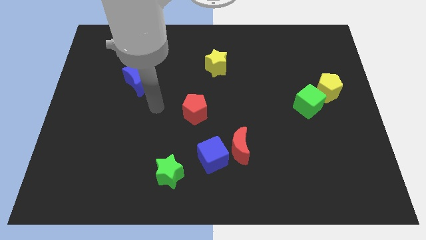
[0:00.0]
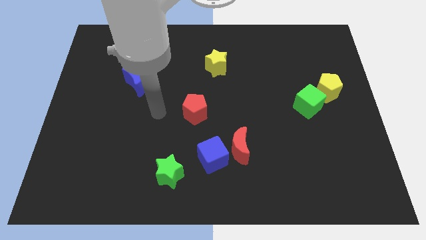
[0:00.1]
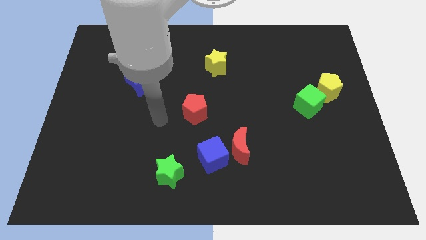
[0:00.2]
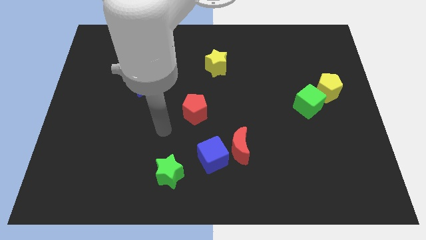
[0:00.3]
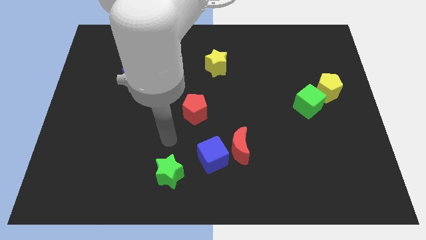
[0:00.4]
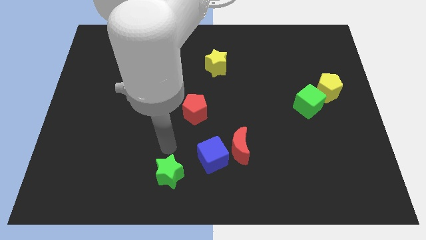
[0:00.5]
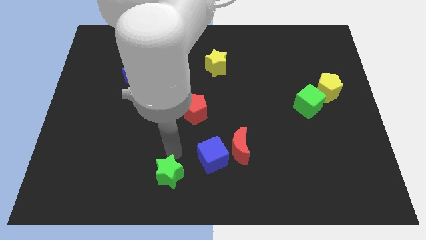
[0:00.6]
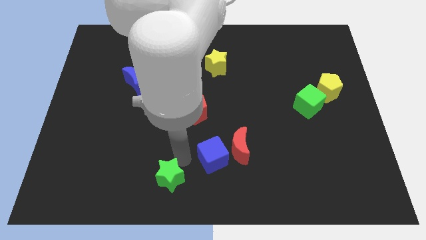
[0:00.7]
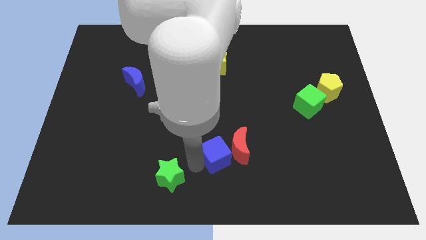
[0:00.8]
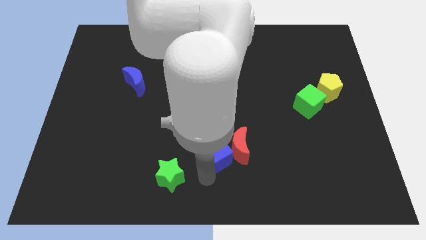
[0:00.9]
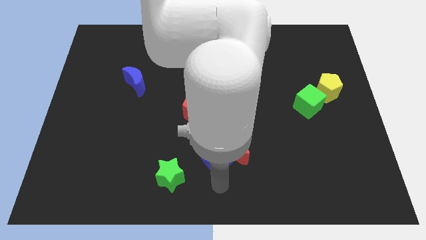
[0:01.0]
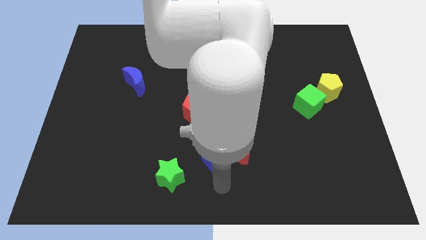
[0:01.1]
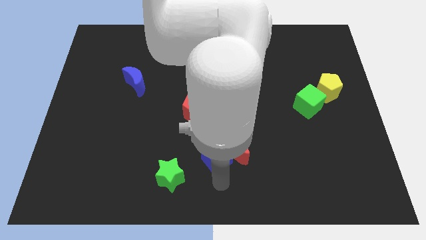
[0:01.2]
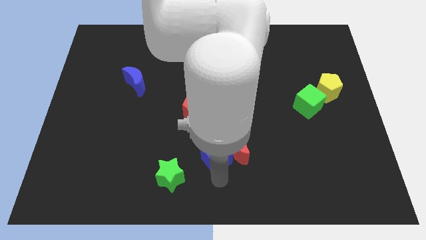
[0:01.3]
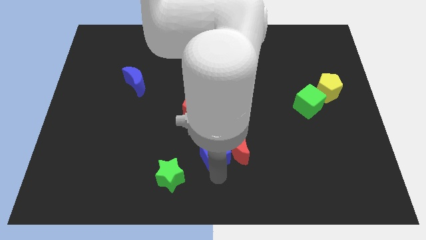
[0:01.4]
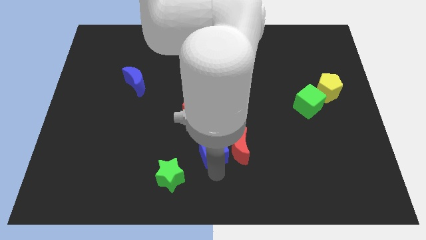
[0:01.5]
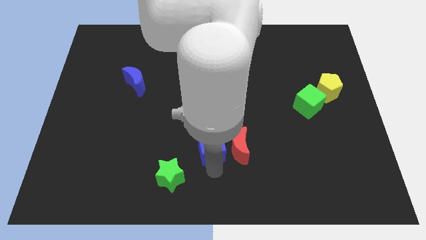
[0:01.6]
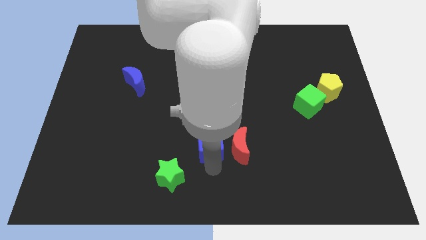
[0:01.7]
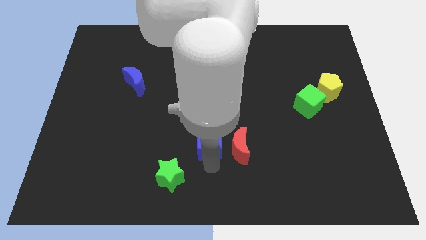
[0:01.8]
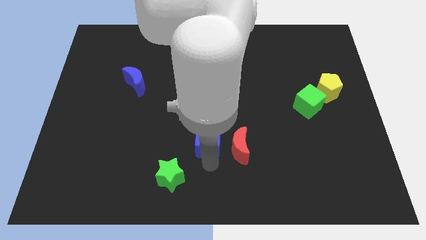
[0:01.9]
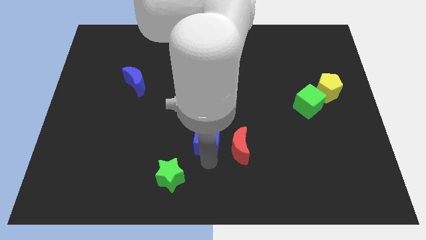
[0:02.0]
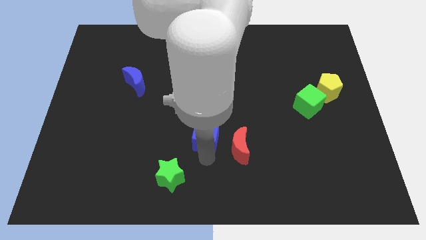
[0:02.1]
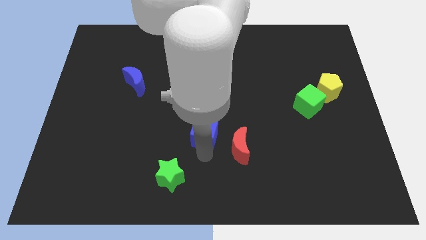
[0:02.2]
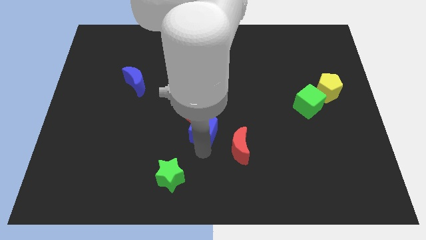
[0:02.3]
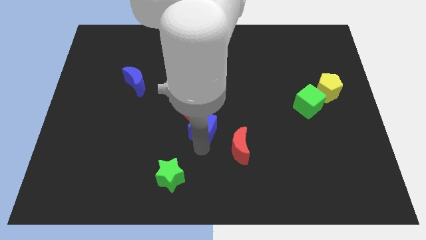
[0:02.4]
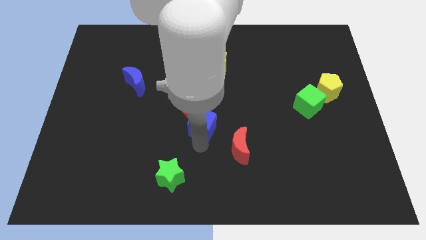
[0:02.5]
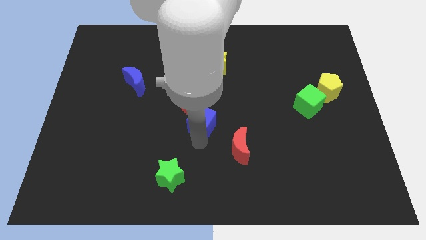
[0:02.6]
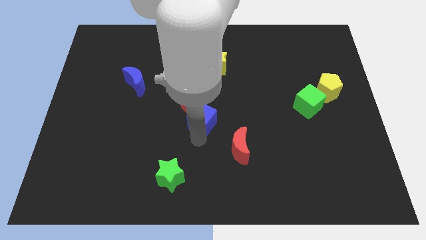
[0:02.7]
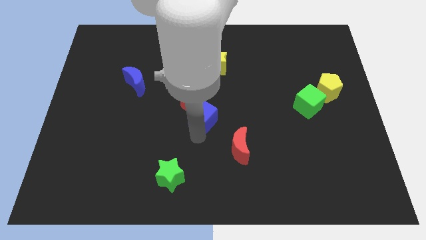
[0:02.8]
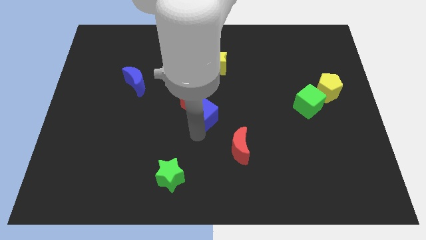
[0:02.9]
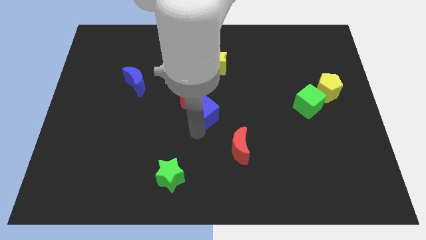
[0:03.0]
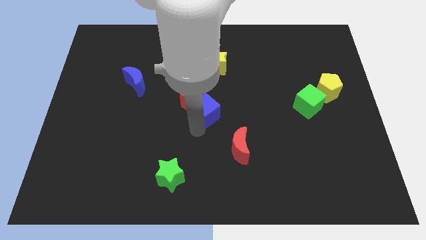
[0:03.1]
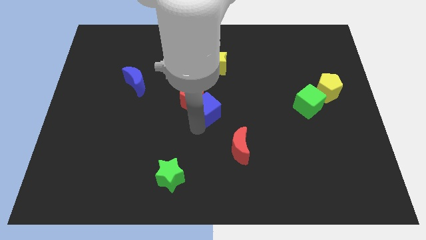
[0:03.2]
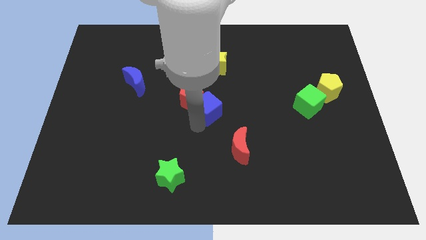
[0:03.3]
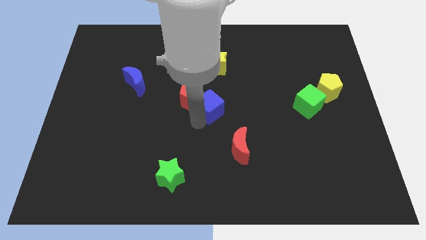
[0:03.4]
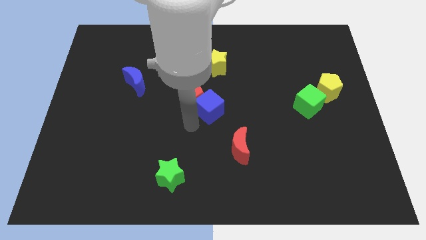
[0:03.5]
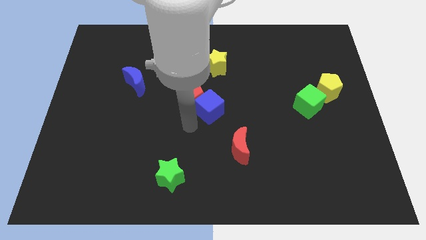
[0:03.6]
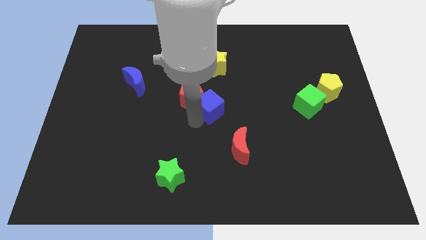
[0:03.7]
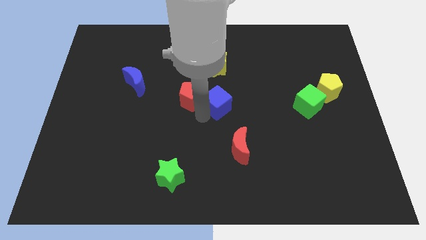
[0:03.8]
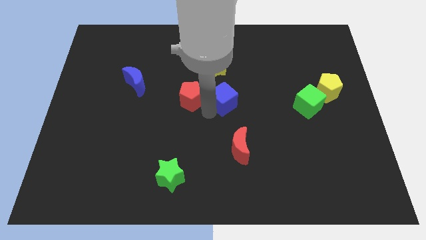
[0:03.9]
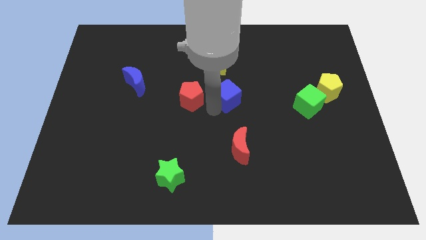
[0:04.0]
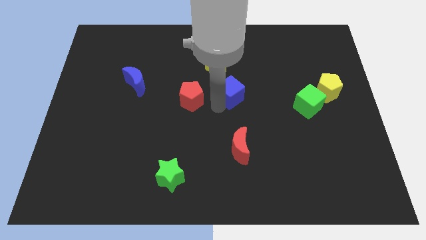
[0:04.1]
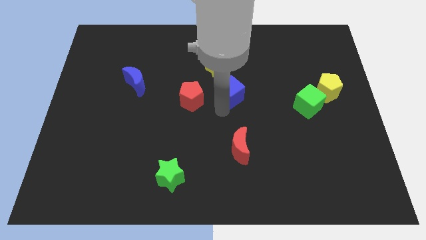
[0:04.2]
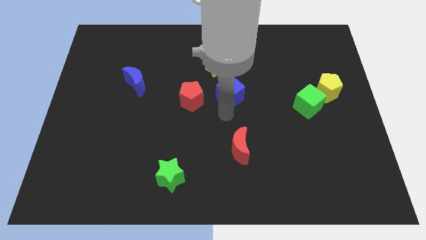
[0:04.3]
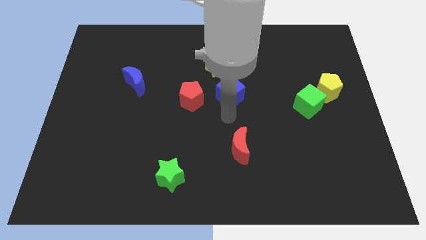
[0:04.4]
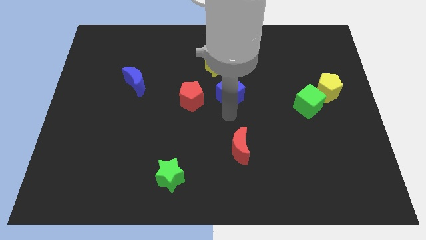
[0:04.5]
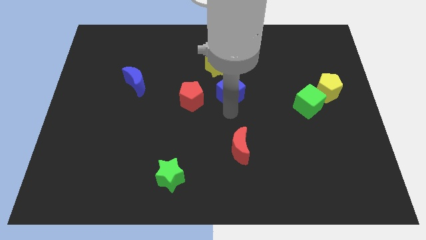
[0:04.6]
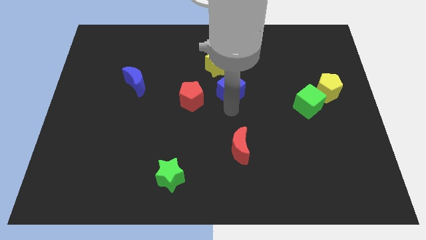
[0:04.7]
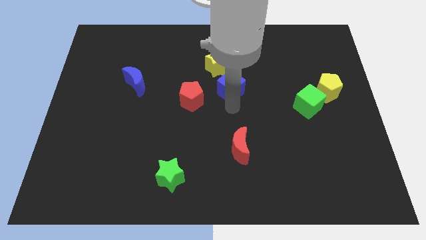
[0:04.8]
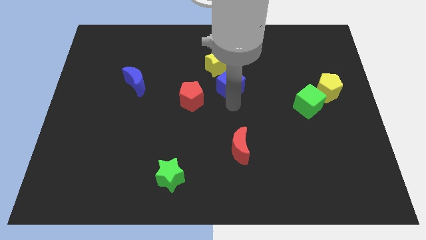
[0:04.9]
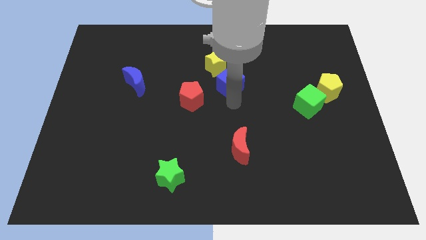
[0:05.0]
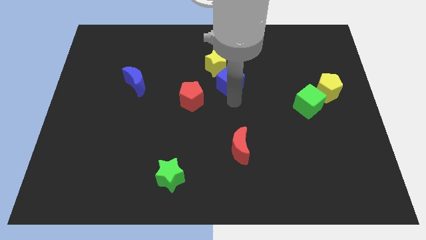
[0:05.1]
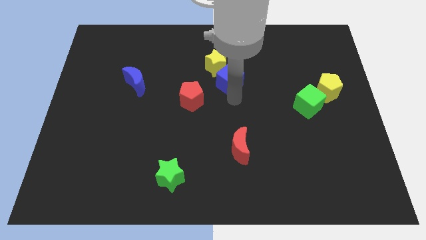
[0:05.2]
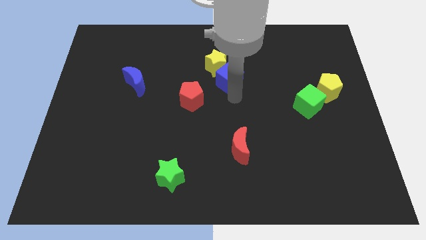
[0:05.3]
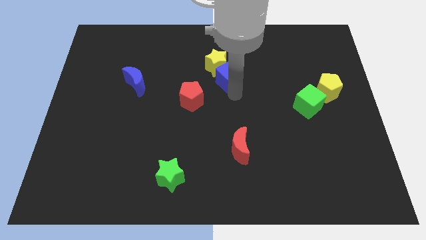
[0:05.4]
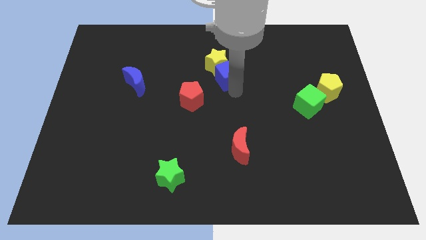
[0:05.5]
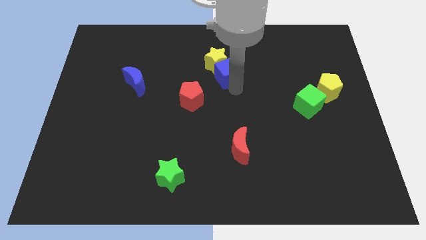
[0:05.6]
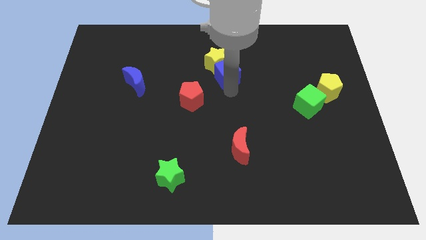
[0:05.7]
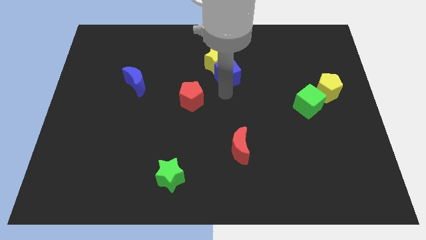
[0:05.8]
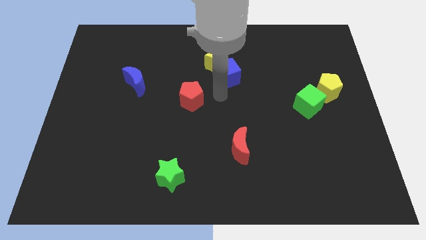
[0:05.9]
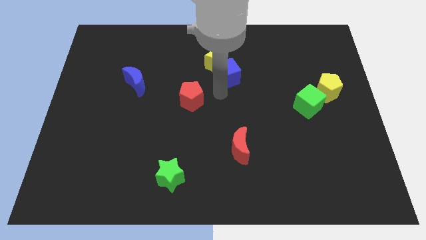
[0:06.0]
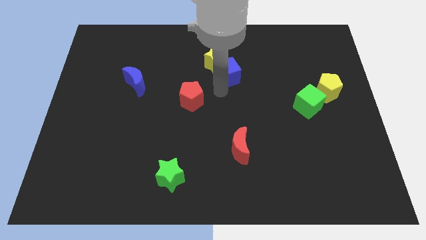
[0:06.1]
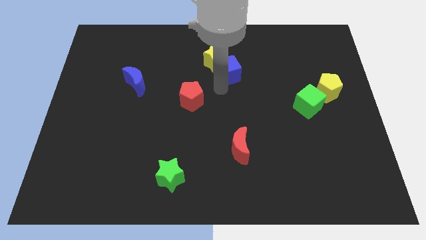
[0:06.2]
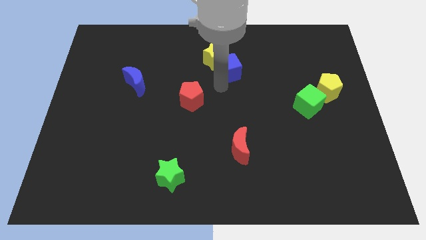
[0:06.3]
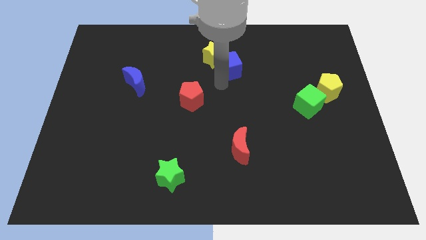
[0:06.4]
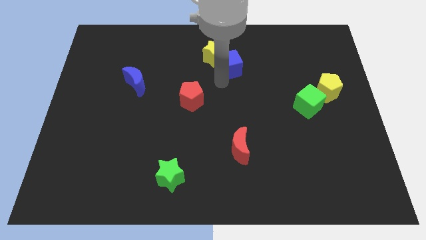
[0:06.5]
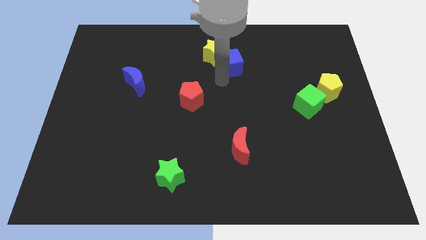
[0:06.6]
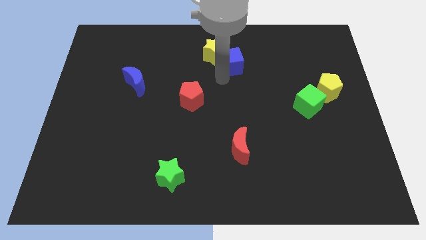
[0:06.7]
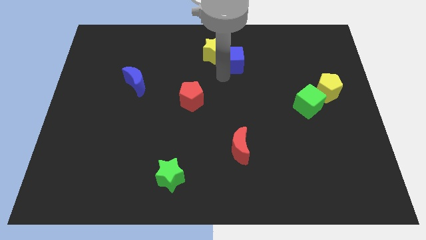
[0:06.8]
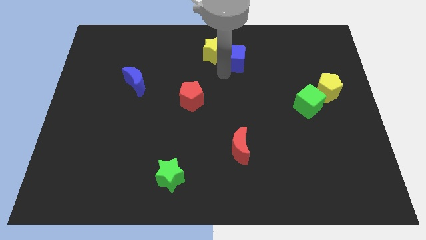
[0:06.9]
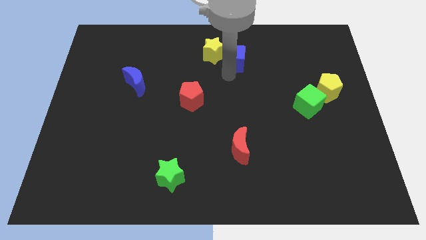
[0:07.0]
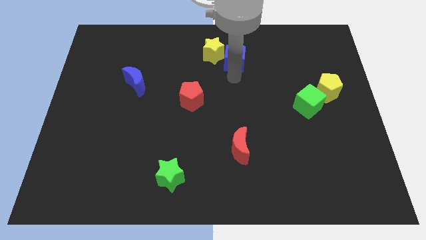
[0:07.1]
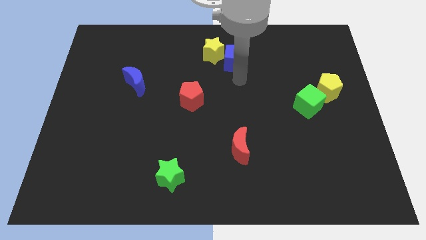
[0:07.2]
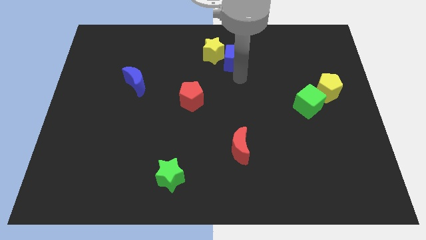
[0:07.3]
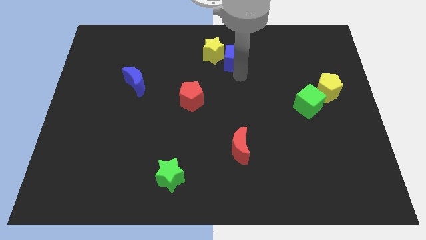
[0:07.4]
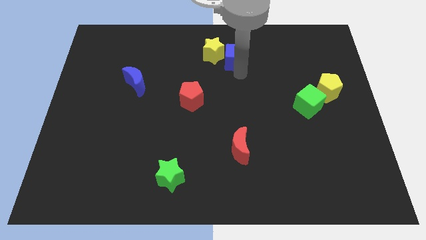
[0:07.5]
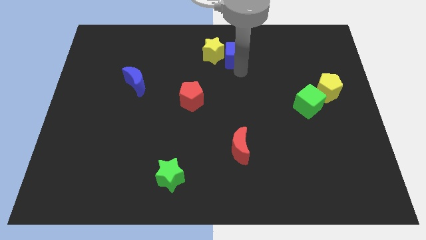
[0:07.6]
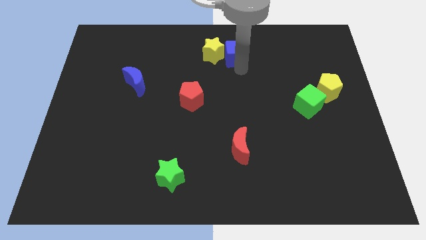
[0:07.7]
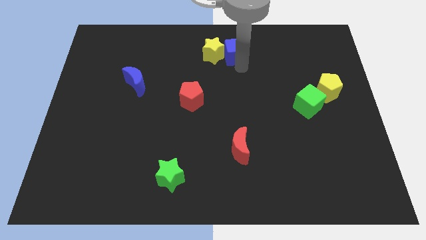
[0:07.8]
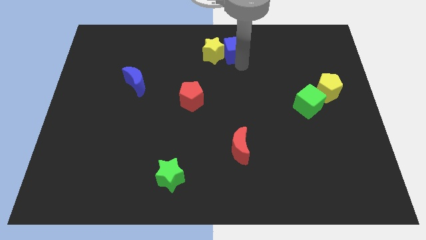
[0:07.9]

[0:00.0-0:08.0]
slide the blue cube to the top side
